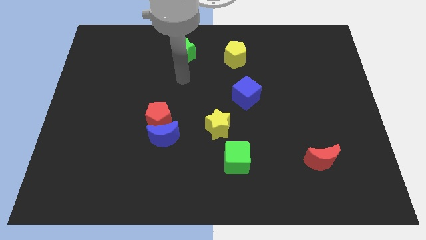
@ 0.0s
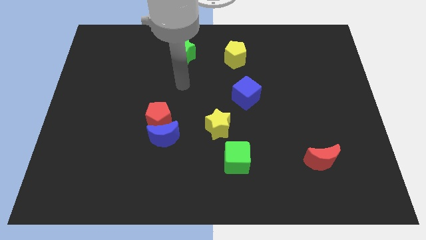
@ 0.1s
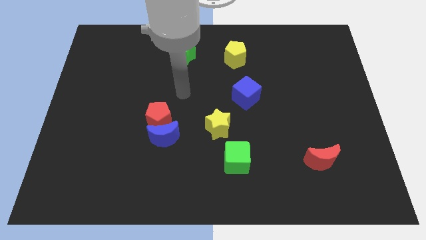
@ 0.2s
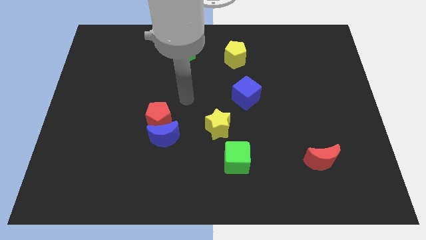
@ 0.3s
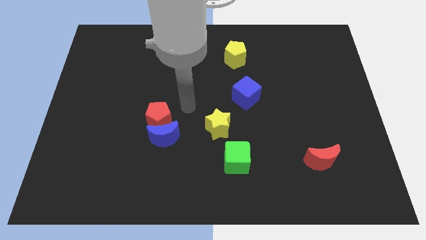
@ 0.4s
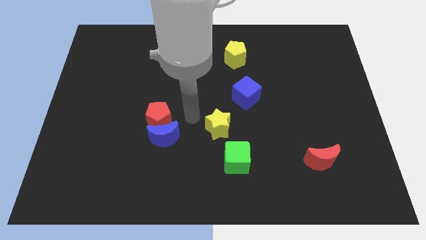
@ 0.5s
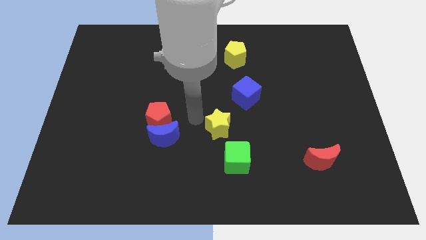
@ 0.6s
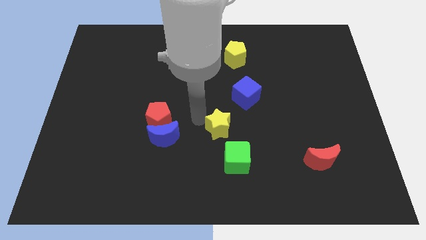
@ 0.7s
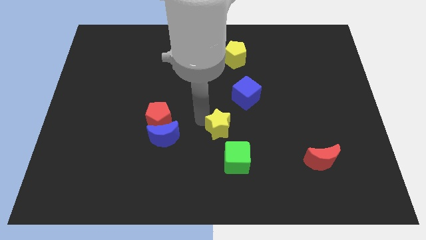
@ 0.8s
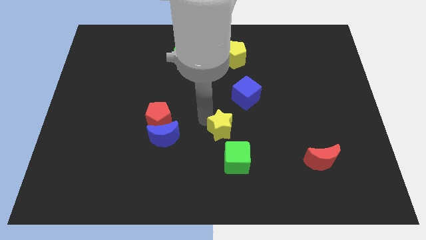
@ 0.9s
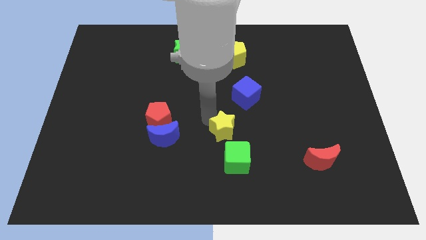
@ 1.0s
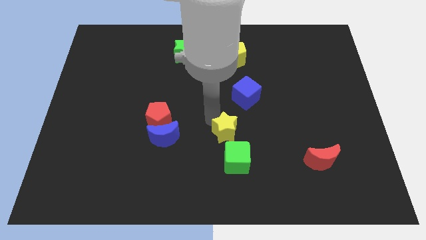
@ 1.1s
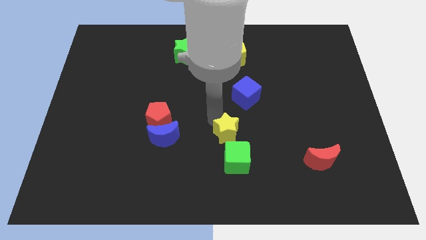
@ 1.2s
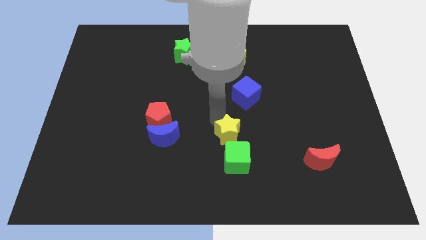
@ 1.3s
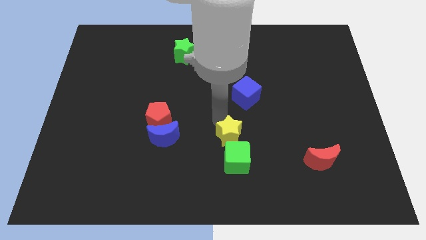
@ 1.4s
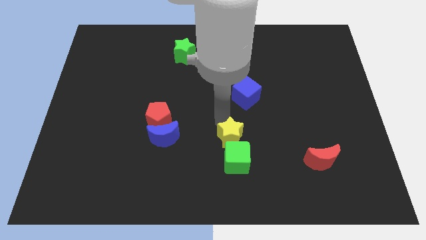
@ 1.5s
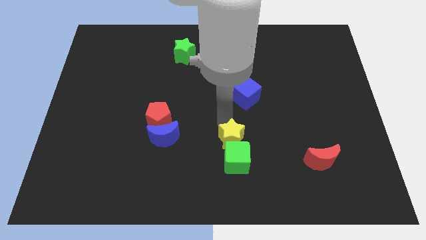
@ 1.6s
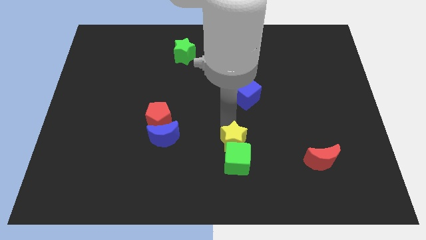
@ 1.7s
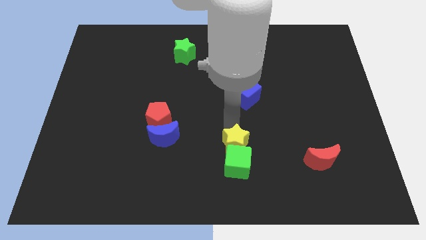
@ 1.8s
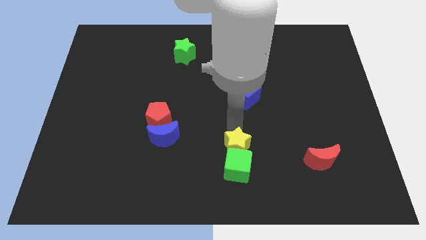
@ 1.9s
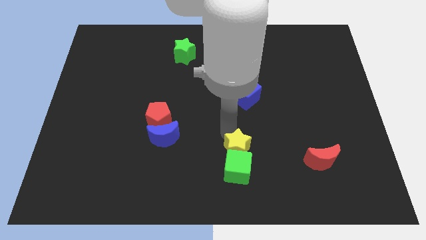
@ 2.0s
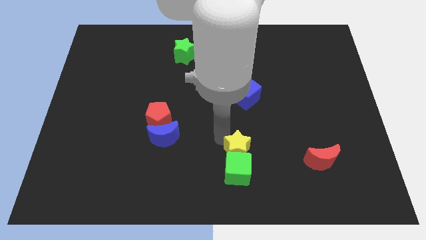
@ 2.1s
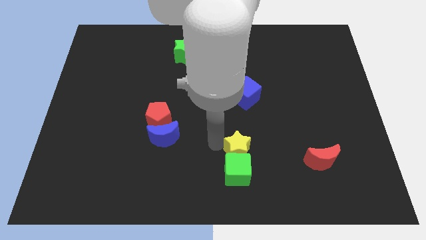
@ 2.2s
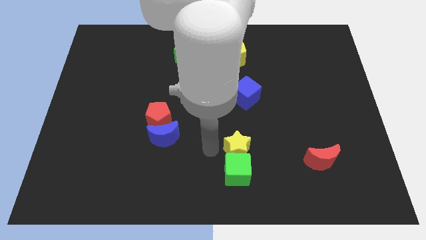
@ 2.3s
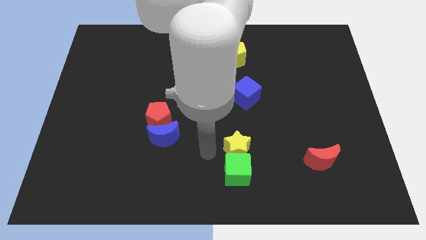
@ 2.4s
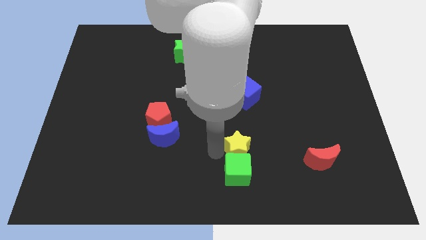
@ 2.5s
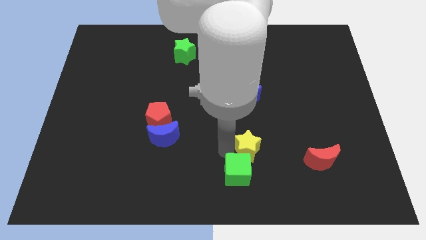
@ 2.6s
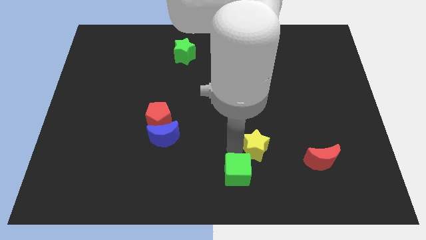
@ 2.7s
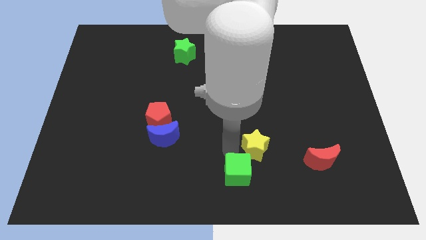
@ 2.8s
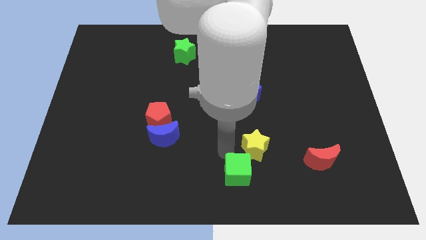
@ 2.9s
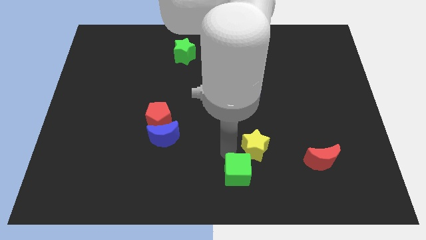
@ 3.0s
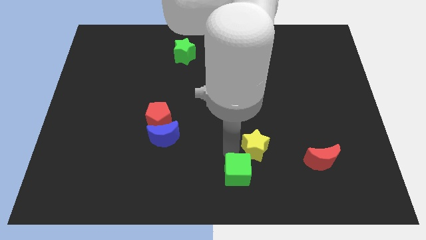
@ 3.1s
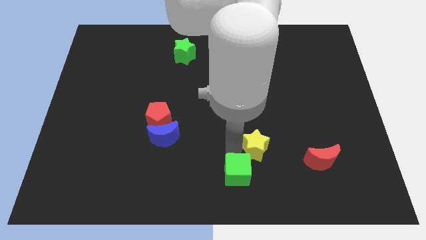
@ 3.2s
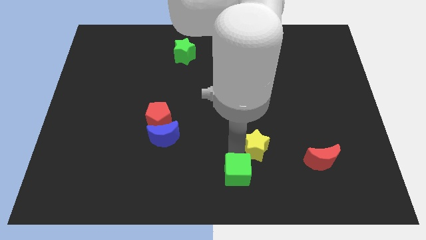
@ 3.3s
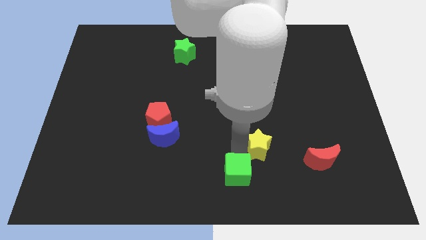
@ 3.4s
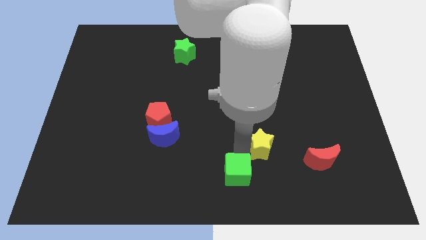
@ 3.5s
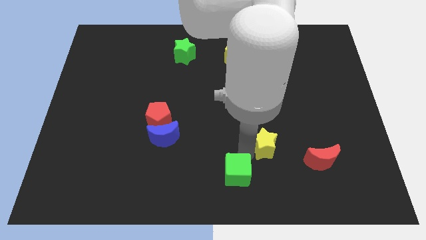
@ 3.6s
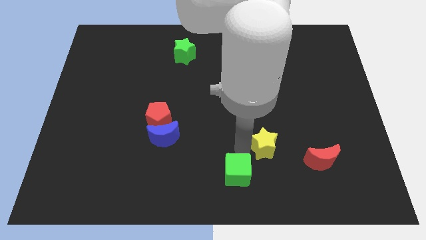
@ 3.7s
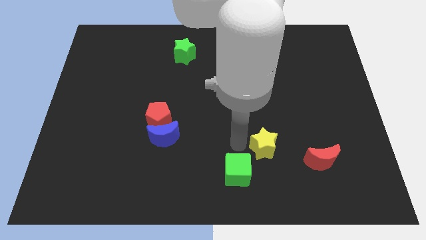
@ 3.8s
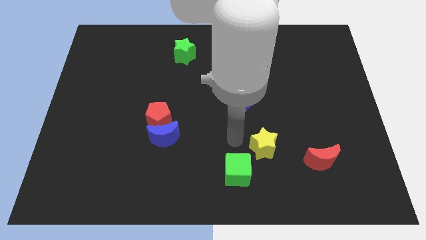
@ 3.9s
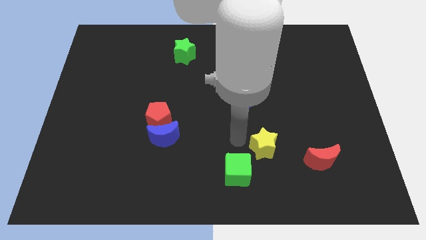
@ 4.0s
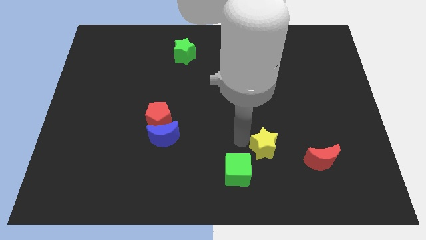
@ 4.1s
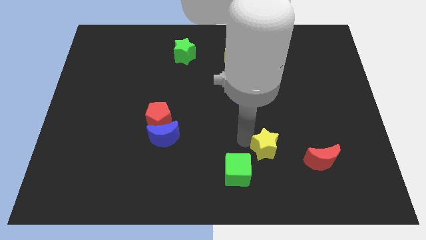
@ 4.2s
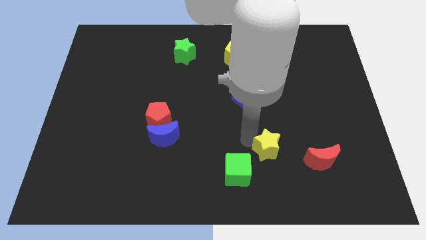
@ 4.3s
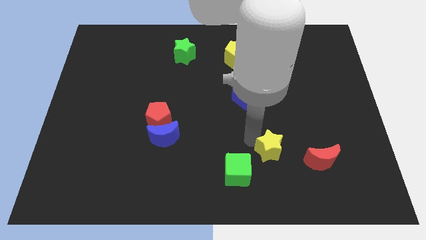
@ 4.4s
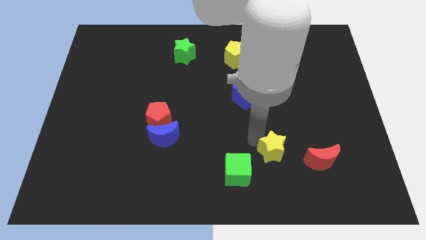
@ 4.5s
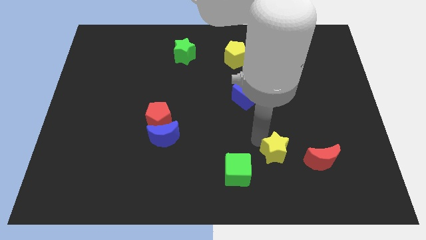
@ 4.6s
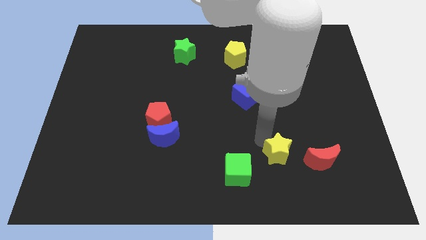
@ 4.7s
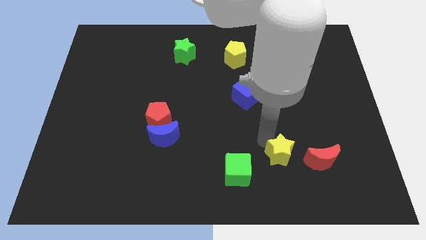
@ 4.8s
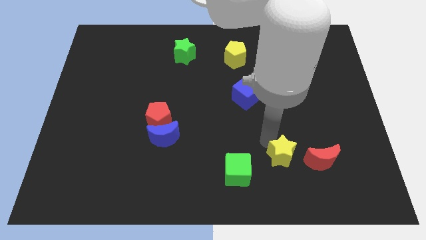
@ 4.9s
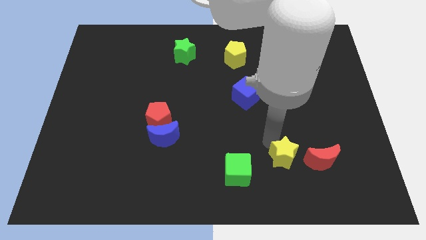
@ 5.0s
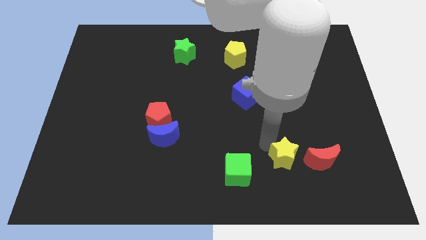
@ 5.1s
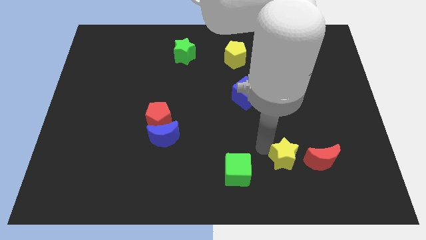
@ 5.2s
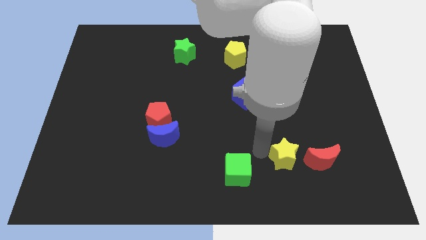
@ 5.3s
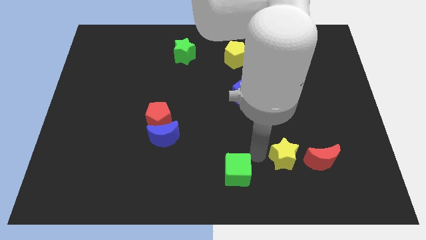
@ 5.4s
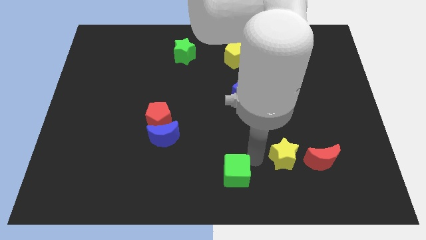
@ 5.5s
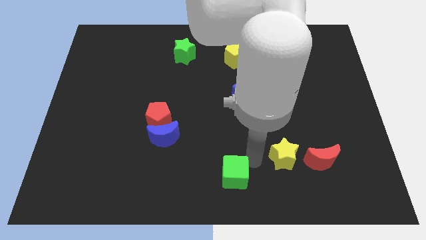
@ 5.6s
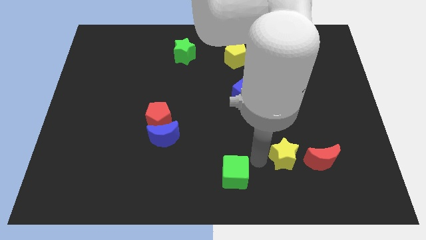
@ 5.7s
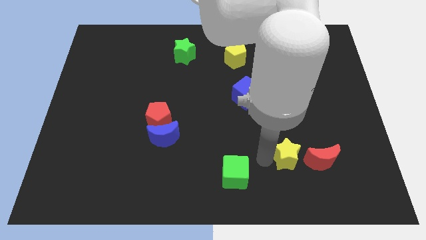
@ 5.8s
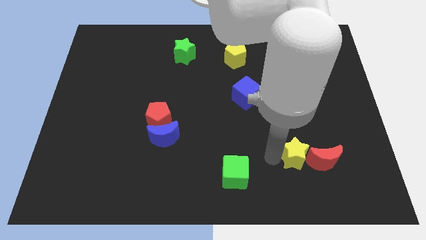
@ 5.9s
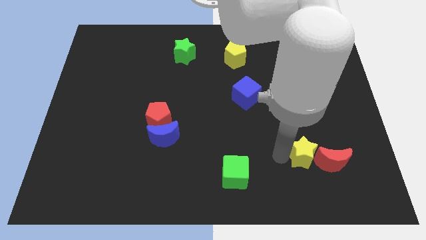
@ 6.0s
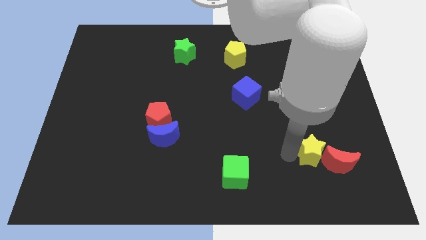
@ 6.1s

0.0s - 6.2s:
move the yellow star close to the red moon

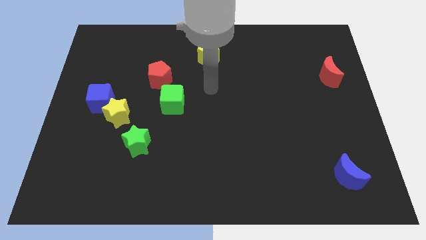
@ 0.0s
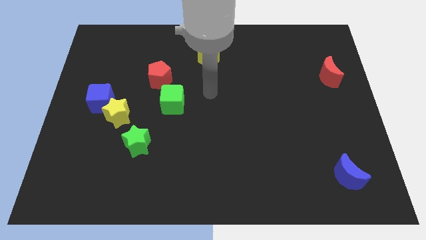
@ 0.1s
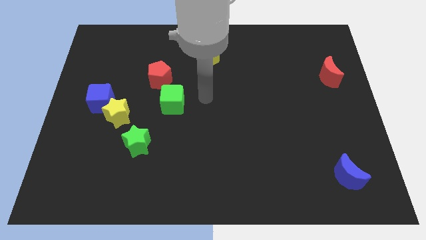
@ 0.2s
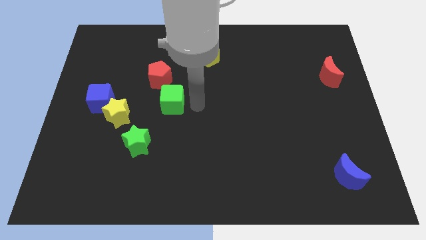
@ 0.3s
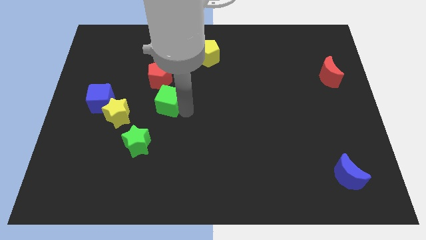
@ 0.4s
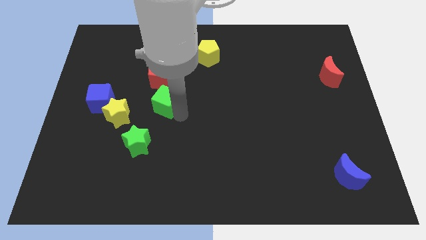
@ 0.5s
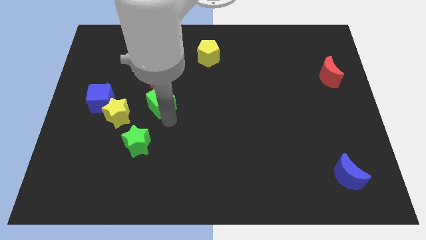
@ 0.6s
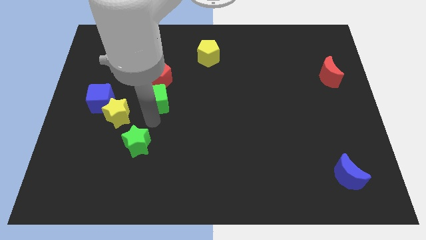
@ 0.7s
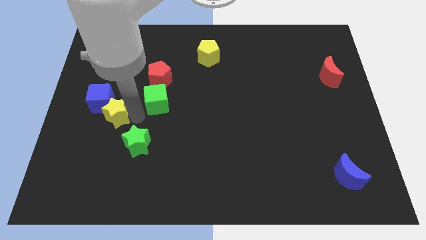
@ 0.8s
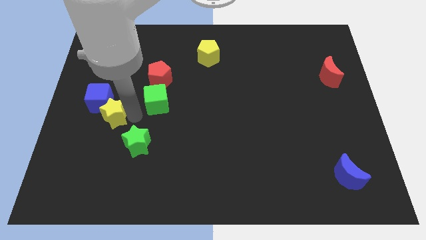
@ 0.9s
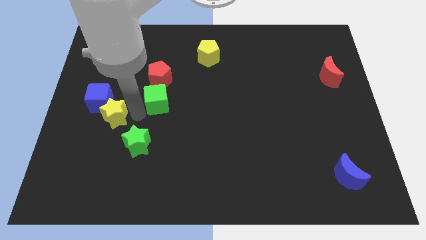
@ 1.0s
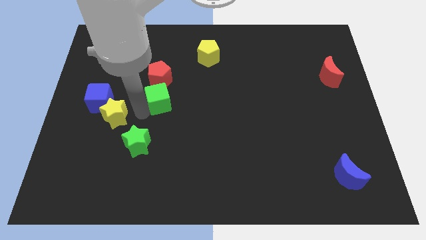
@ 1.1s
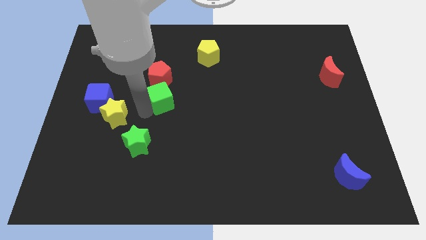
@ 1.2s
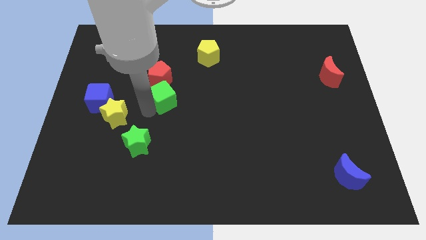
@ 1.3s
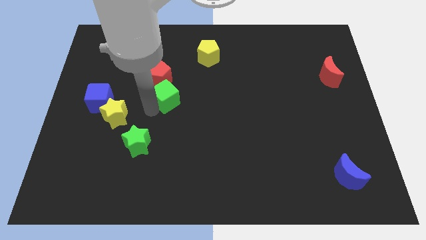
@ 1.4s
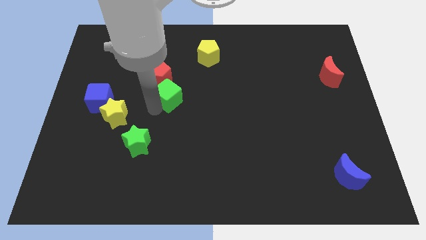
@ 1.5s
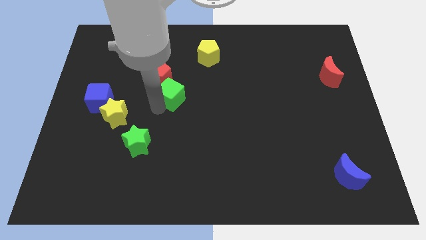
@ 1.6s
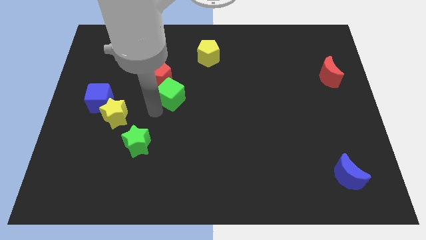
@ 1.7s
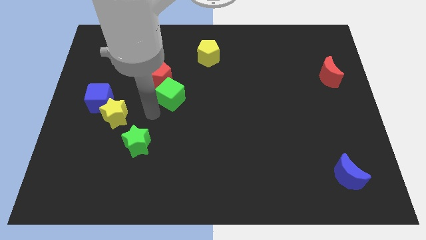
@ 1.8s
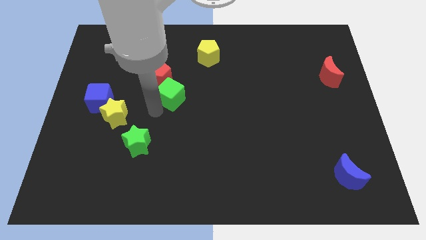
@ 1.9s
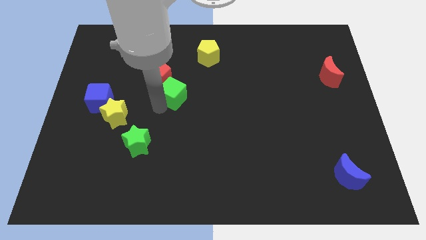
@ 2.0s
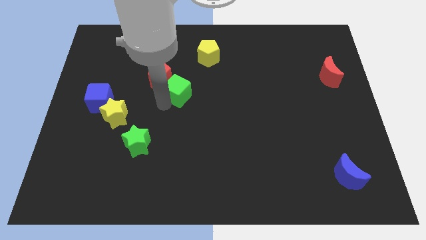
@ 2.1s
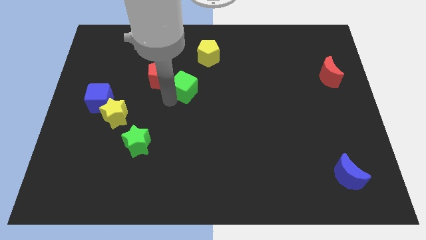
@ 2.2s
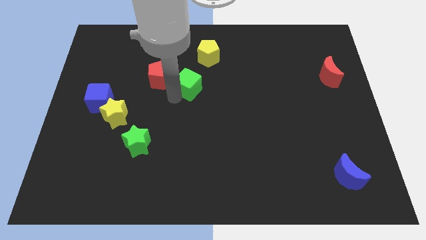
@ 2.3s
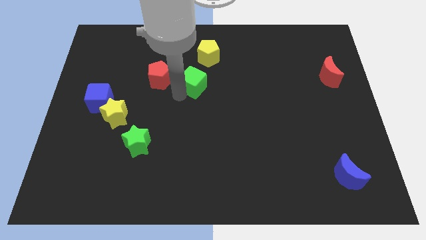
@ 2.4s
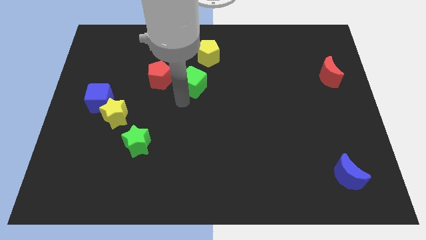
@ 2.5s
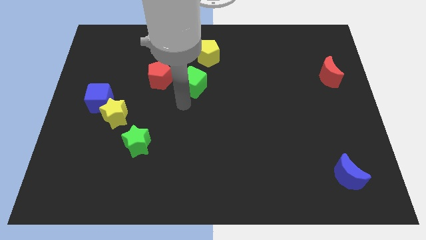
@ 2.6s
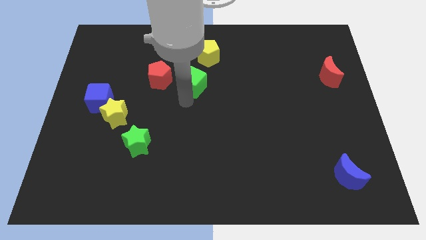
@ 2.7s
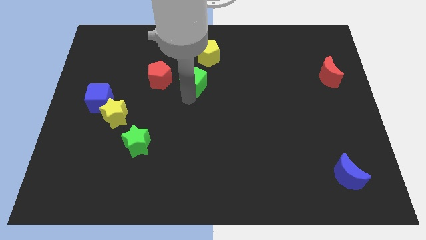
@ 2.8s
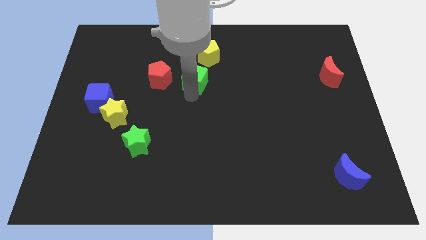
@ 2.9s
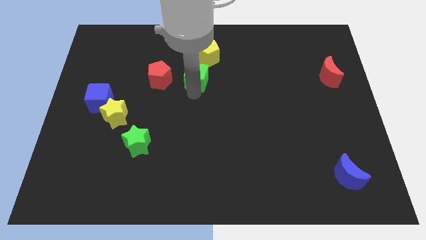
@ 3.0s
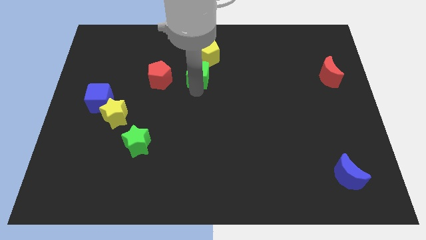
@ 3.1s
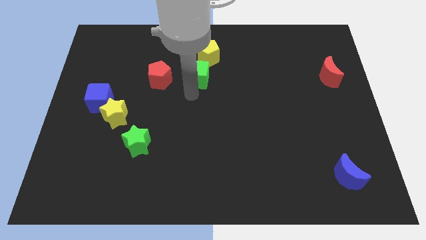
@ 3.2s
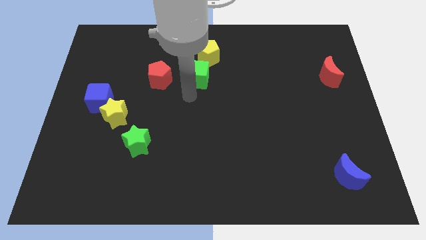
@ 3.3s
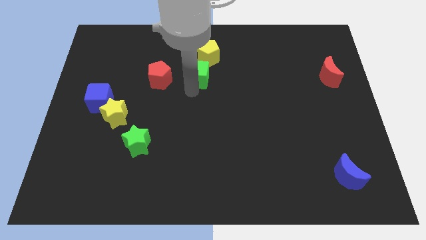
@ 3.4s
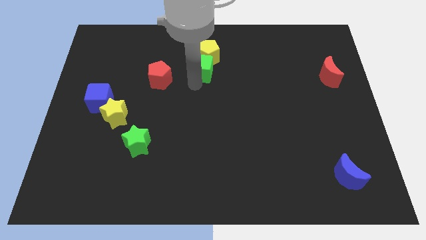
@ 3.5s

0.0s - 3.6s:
push the green cube next to the yellow pentagon
